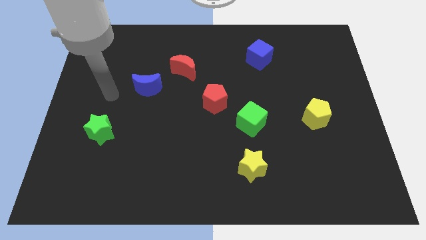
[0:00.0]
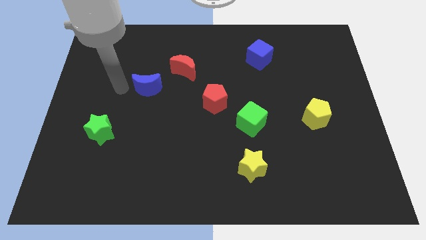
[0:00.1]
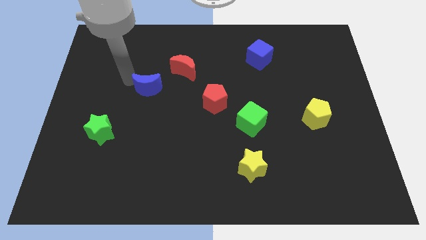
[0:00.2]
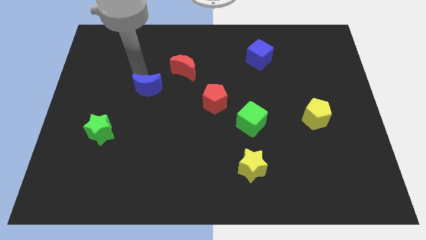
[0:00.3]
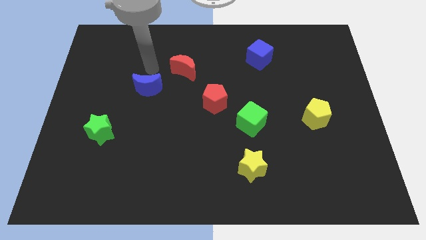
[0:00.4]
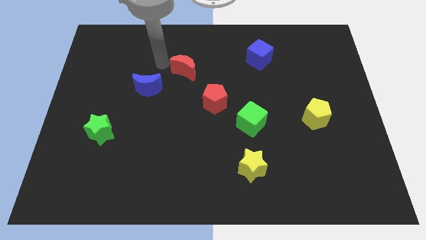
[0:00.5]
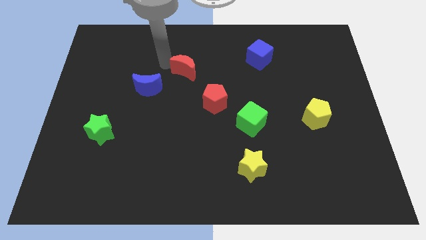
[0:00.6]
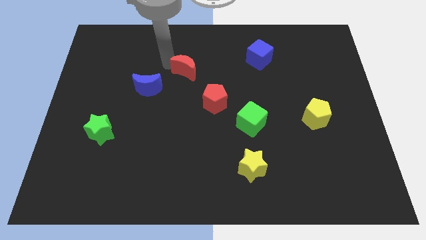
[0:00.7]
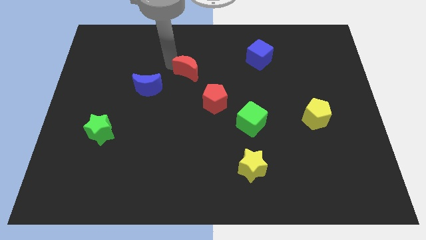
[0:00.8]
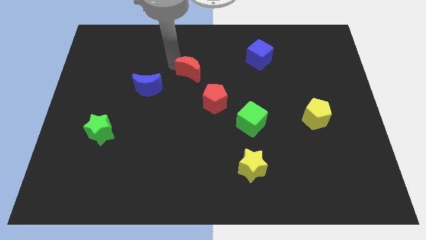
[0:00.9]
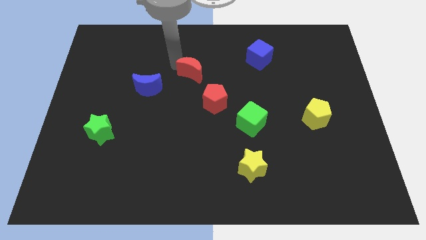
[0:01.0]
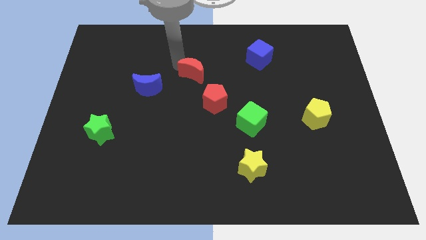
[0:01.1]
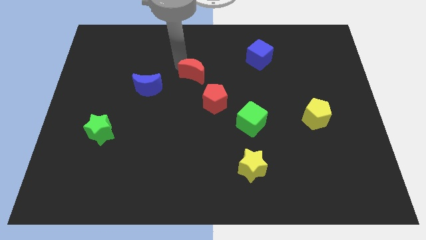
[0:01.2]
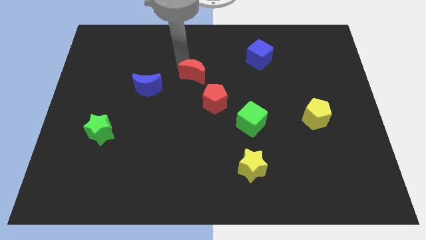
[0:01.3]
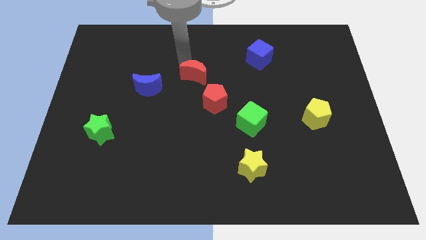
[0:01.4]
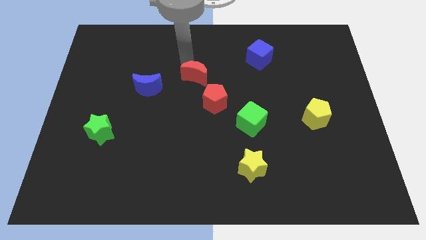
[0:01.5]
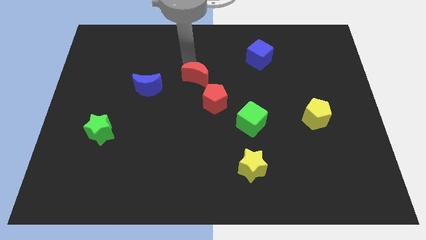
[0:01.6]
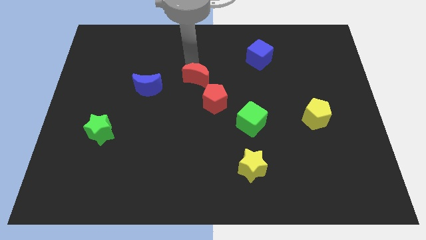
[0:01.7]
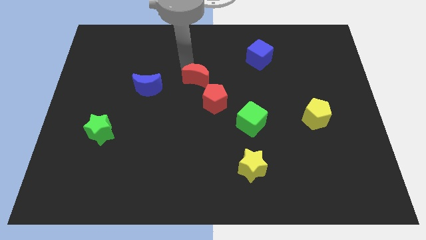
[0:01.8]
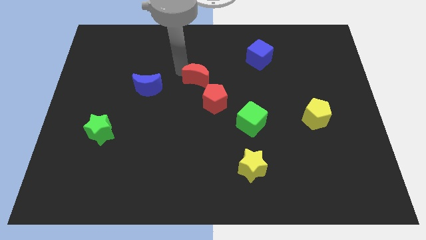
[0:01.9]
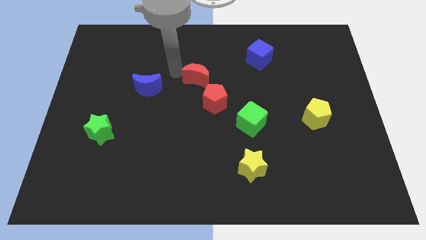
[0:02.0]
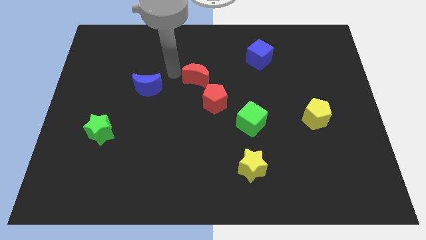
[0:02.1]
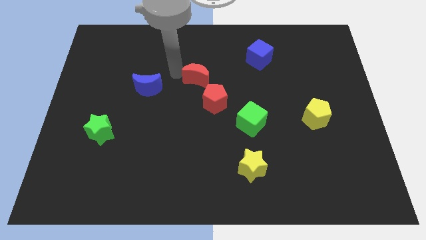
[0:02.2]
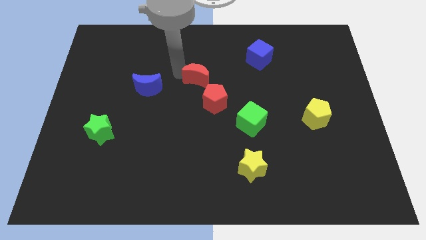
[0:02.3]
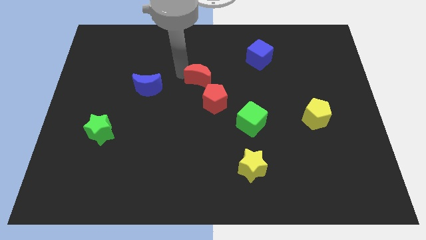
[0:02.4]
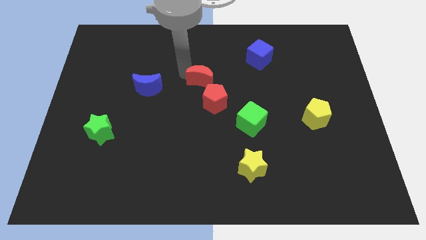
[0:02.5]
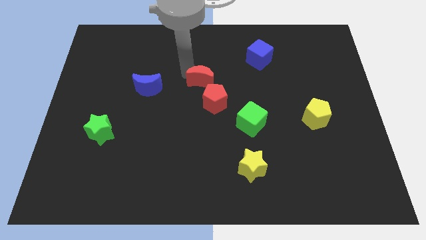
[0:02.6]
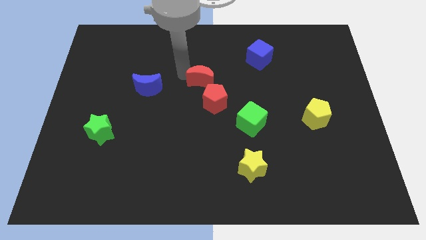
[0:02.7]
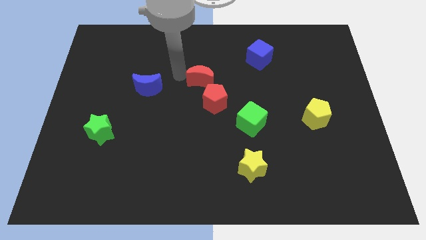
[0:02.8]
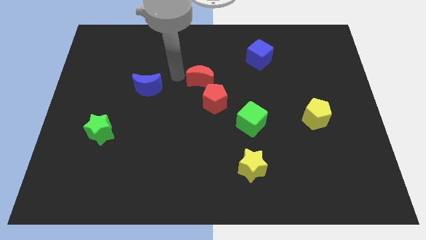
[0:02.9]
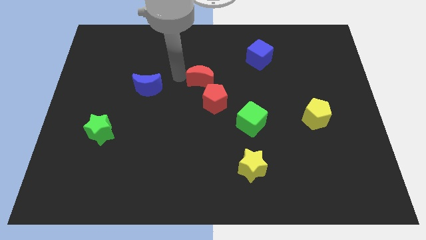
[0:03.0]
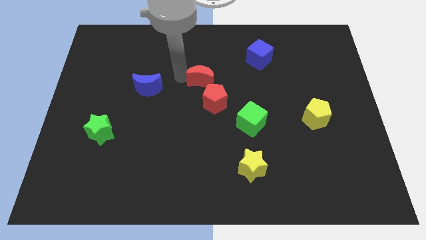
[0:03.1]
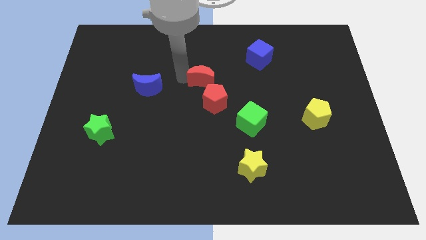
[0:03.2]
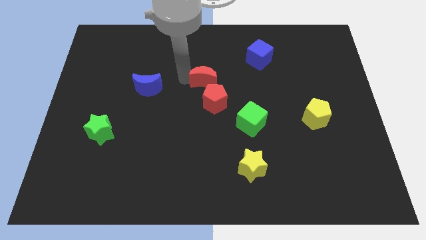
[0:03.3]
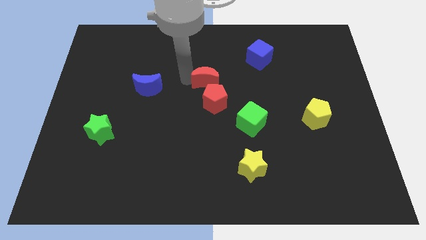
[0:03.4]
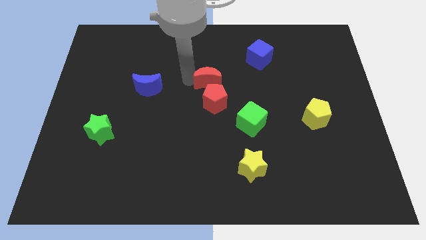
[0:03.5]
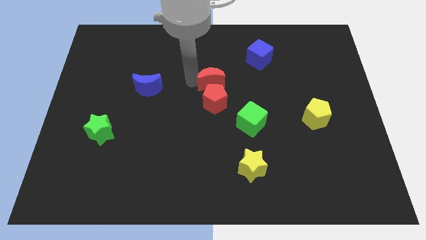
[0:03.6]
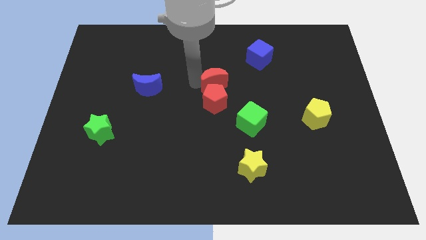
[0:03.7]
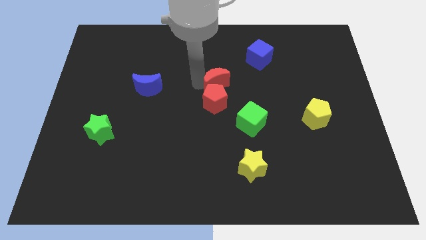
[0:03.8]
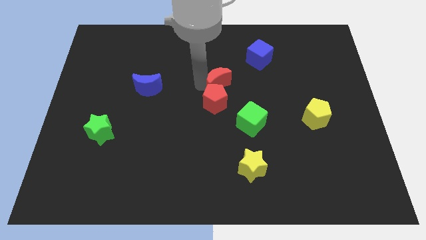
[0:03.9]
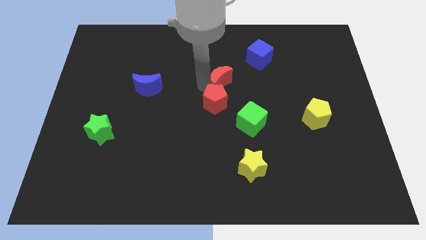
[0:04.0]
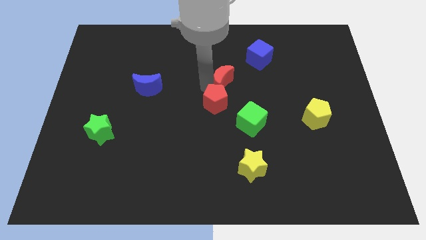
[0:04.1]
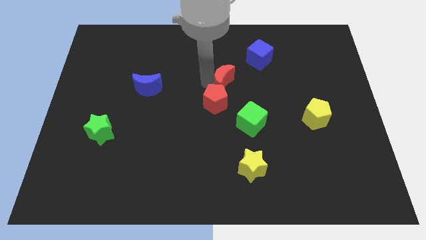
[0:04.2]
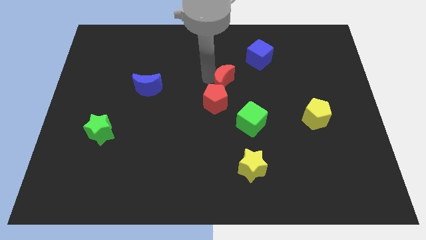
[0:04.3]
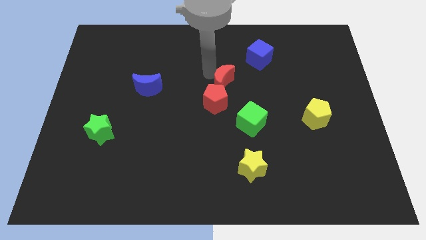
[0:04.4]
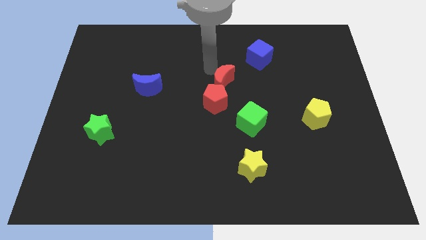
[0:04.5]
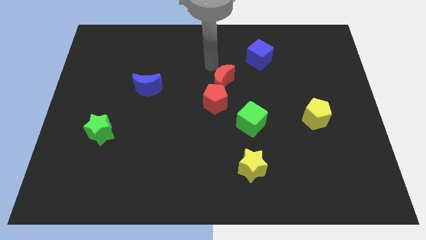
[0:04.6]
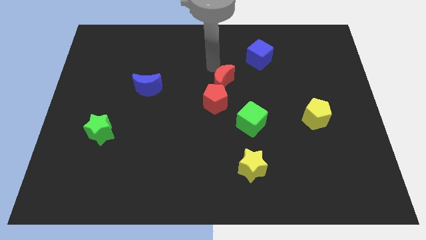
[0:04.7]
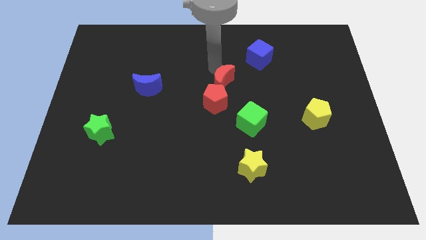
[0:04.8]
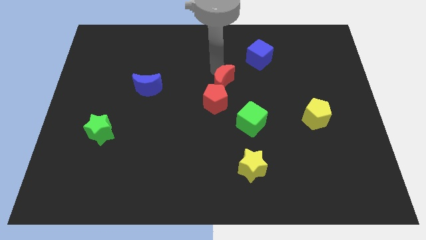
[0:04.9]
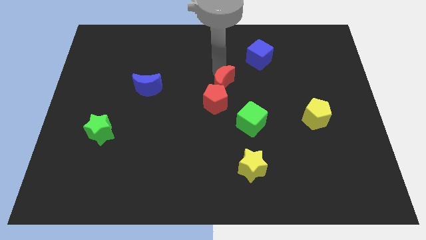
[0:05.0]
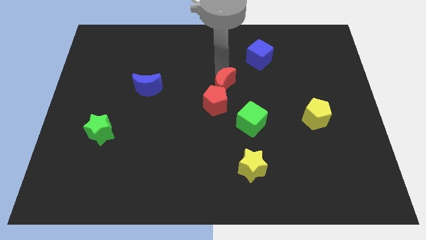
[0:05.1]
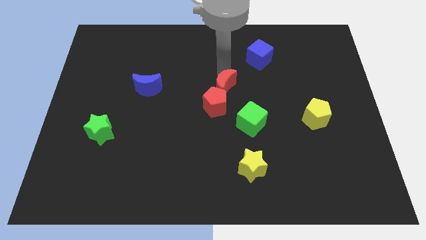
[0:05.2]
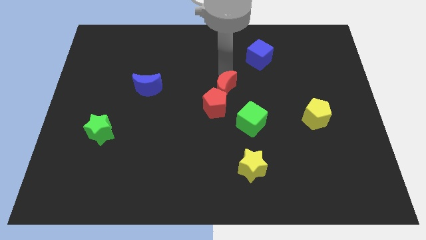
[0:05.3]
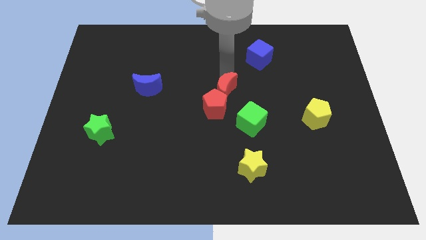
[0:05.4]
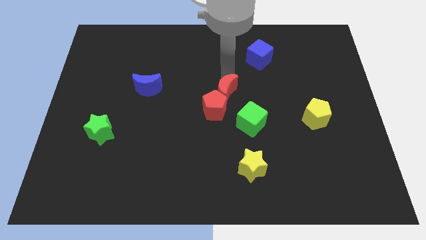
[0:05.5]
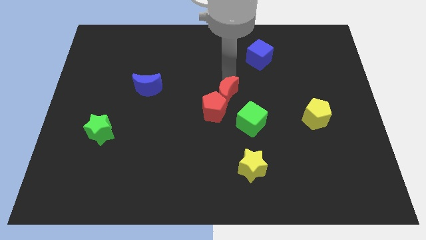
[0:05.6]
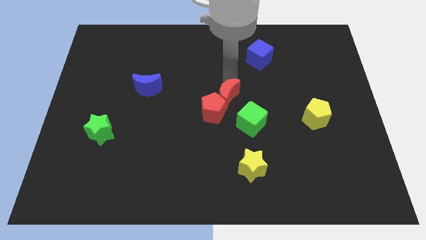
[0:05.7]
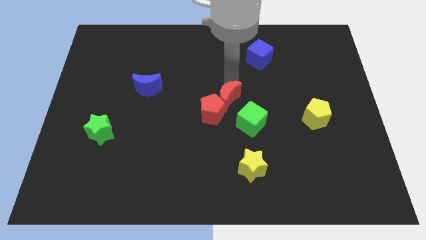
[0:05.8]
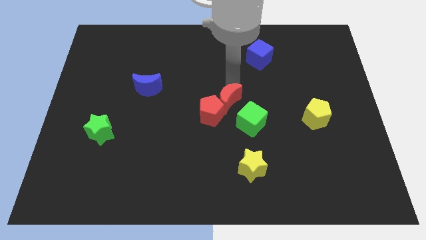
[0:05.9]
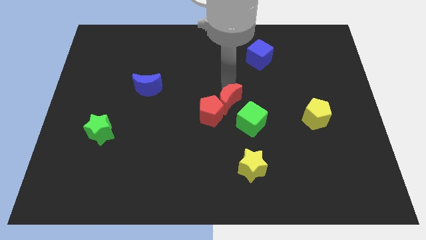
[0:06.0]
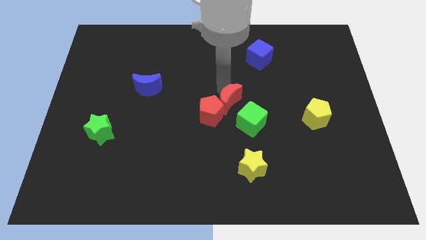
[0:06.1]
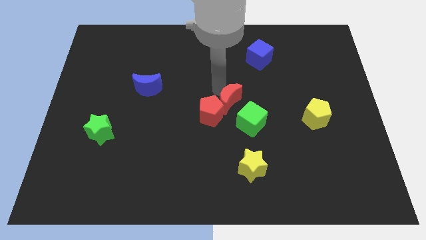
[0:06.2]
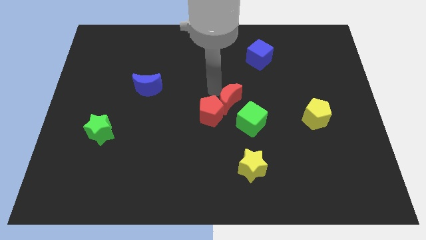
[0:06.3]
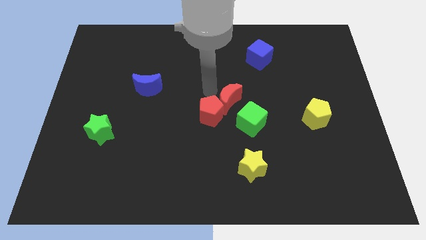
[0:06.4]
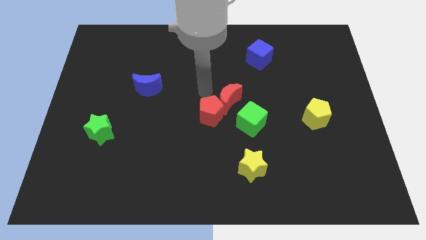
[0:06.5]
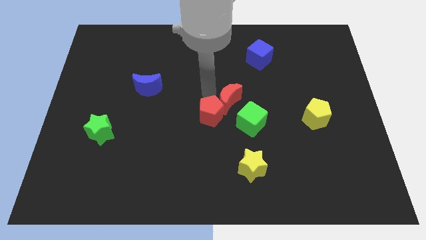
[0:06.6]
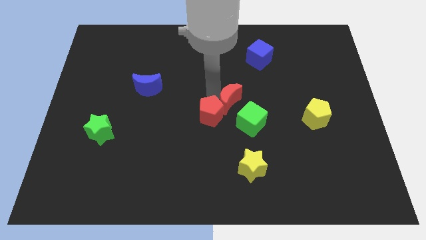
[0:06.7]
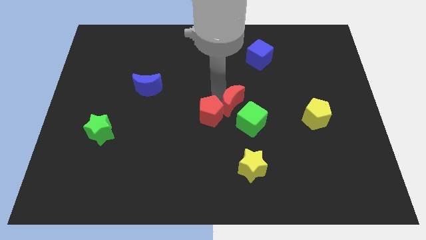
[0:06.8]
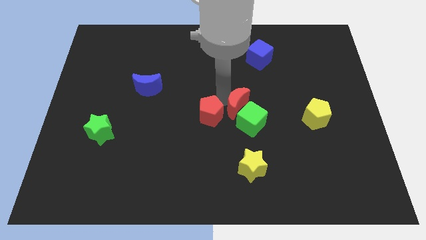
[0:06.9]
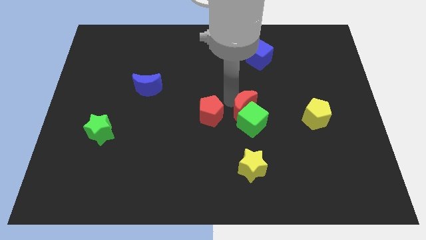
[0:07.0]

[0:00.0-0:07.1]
slide the red moon to the top side of the yellow star
